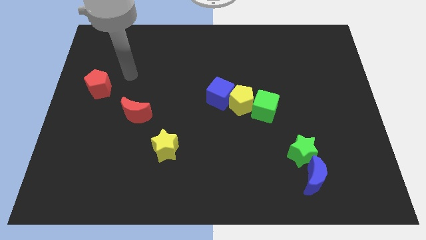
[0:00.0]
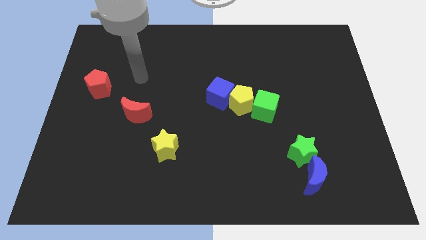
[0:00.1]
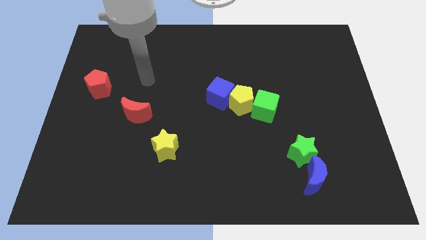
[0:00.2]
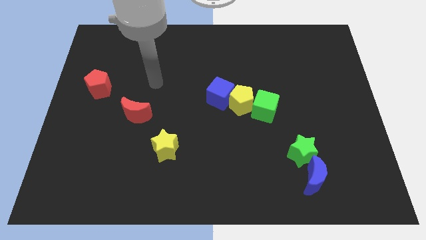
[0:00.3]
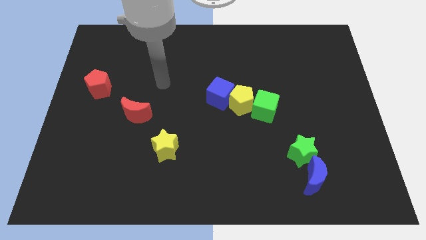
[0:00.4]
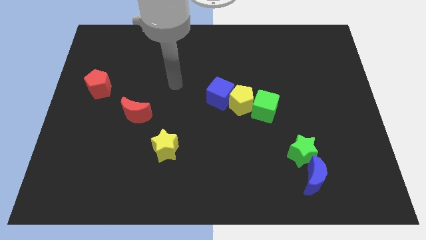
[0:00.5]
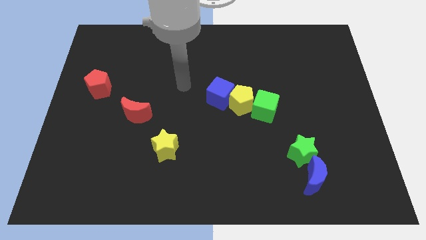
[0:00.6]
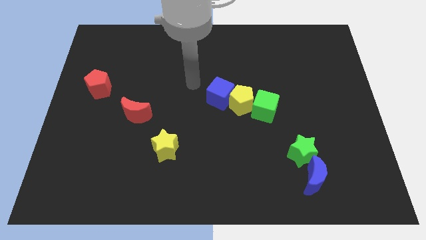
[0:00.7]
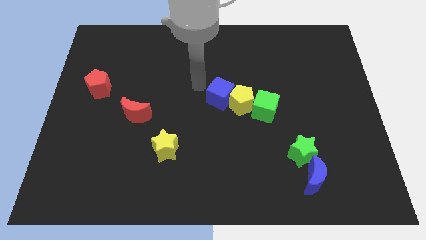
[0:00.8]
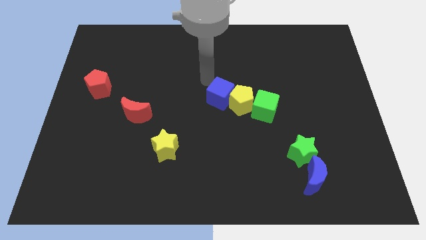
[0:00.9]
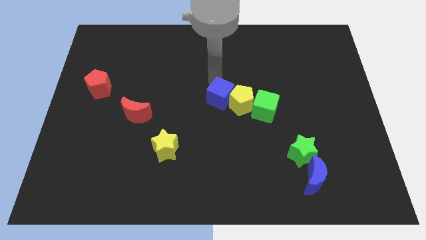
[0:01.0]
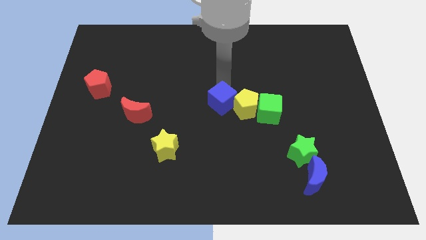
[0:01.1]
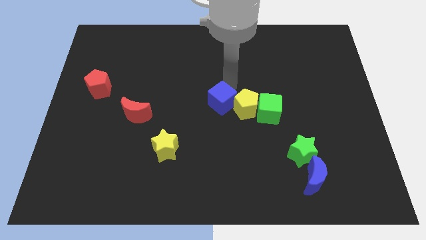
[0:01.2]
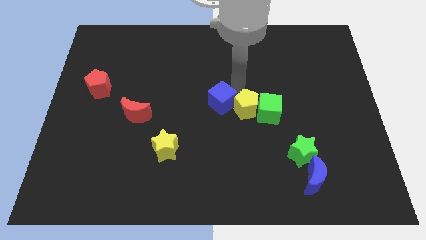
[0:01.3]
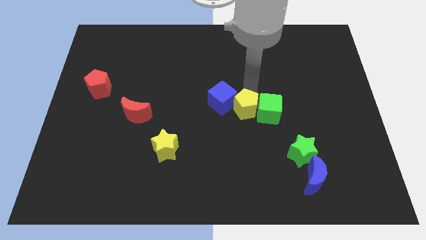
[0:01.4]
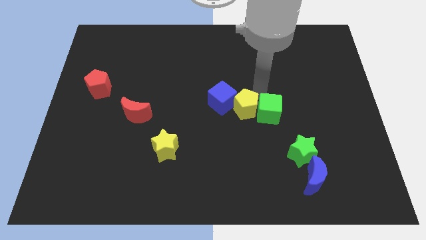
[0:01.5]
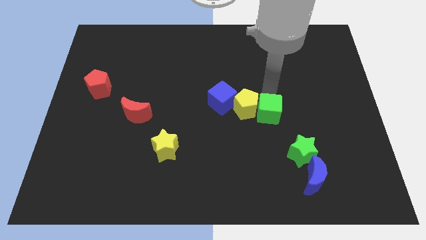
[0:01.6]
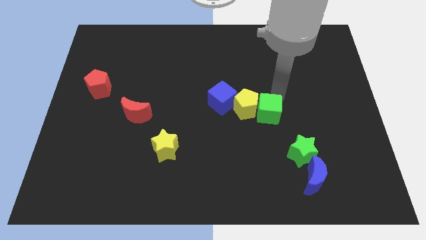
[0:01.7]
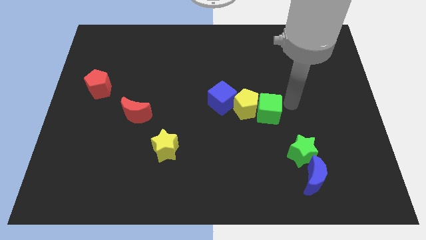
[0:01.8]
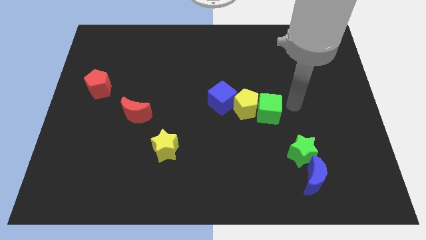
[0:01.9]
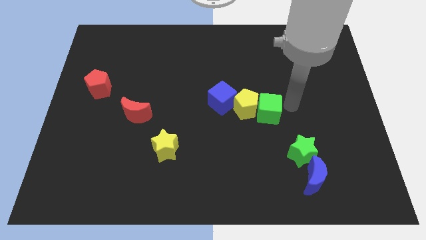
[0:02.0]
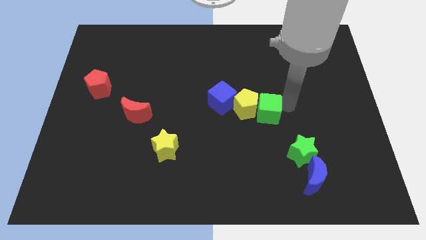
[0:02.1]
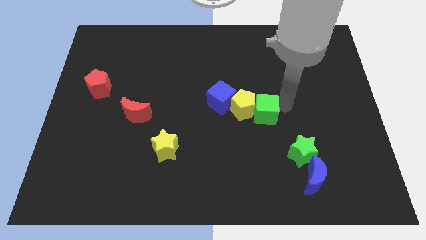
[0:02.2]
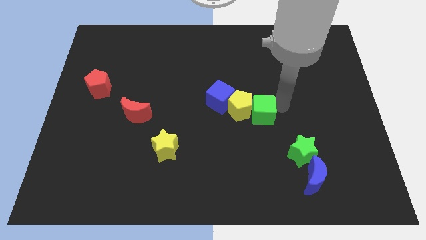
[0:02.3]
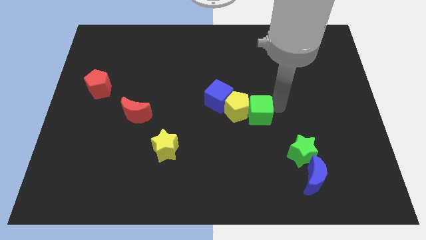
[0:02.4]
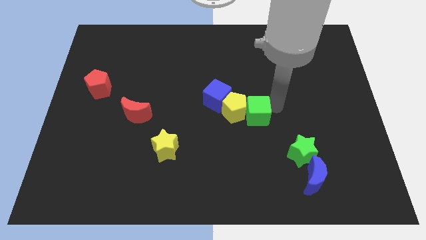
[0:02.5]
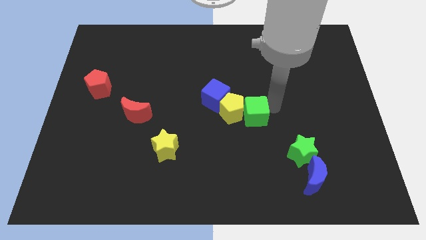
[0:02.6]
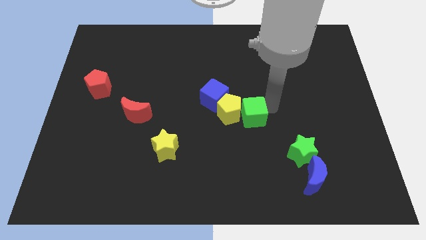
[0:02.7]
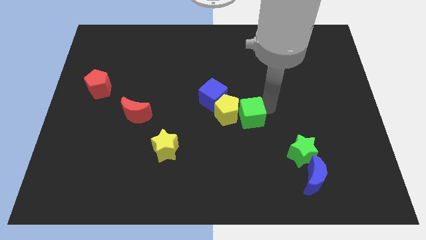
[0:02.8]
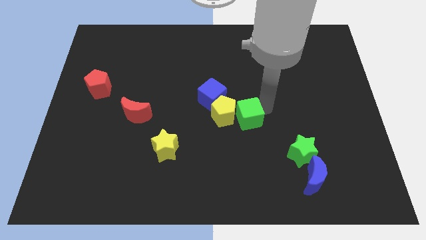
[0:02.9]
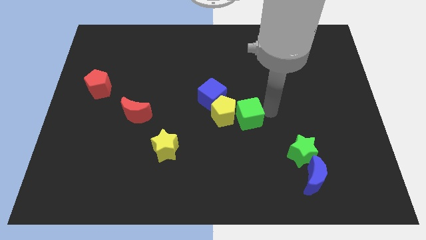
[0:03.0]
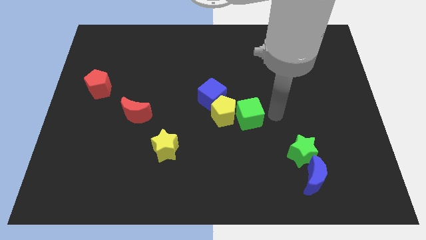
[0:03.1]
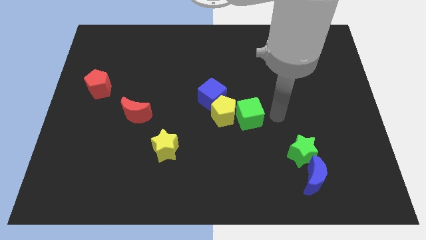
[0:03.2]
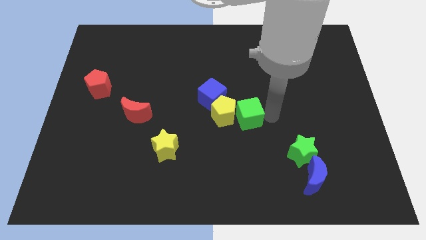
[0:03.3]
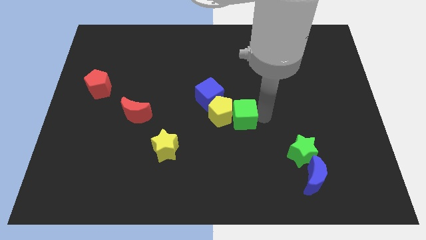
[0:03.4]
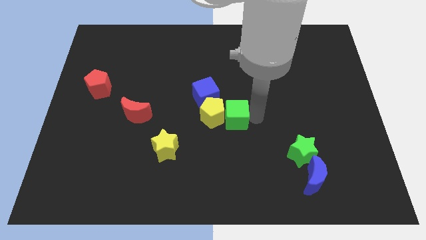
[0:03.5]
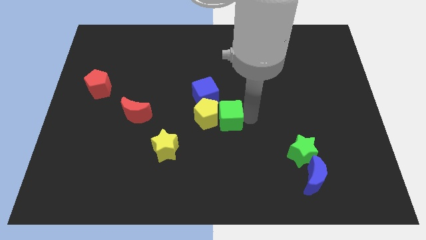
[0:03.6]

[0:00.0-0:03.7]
slightly move the green cube left

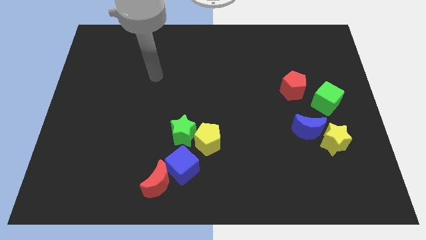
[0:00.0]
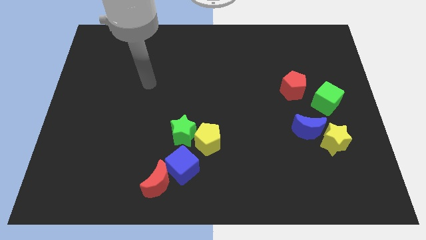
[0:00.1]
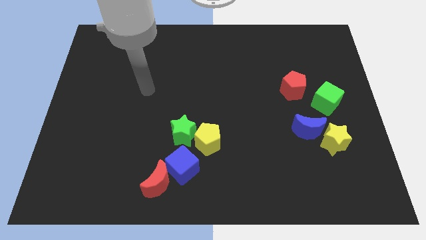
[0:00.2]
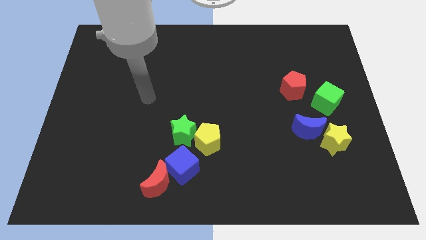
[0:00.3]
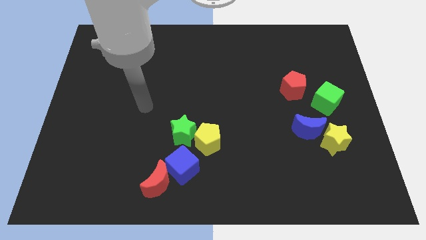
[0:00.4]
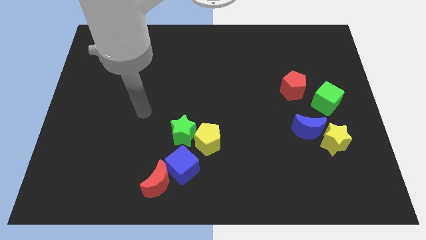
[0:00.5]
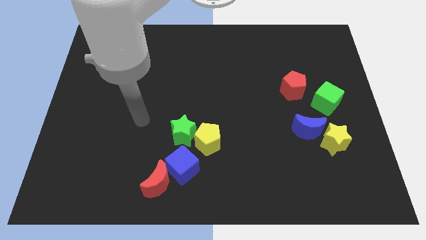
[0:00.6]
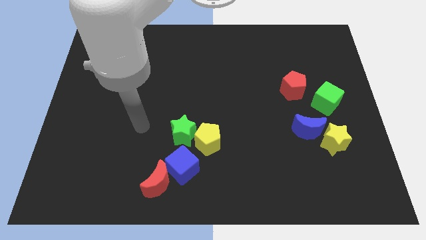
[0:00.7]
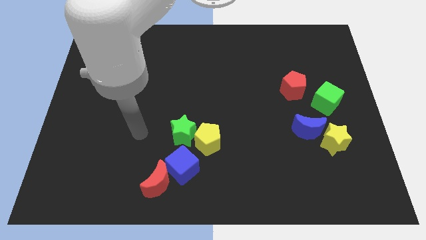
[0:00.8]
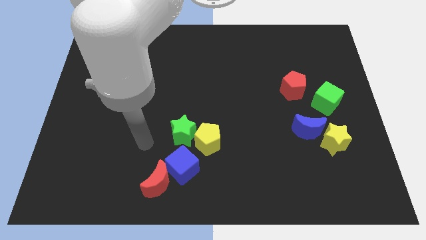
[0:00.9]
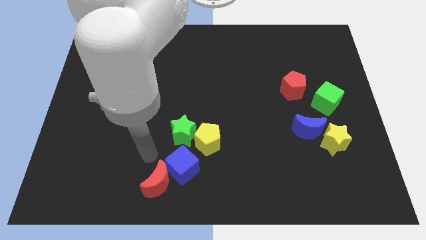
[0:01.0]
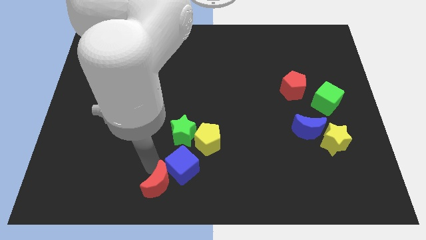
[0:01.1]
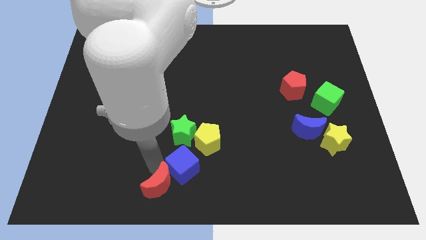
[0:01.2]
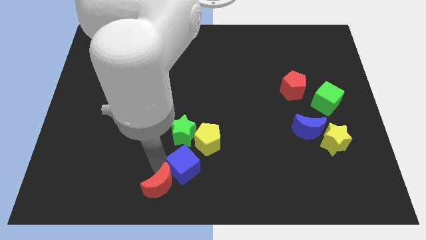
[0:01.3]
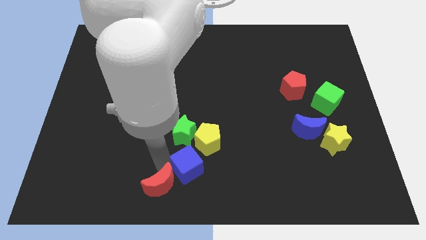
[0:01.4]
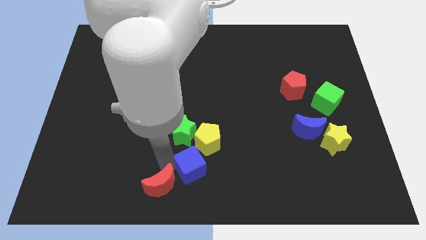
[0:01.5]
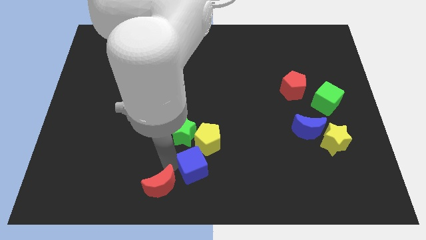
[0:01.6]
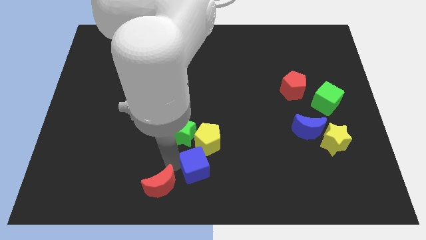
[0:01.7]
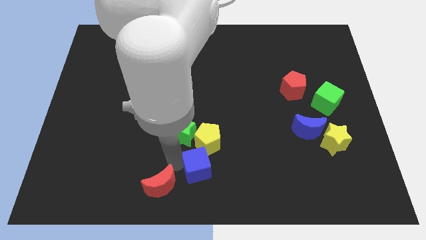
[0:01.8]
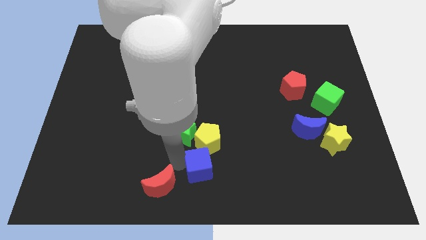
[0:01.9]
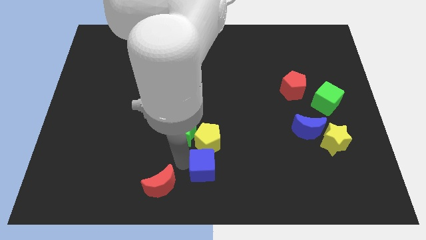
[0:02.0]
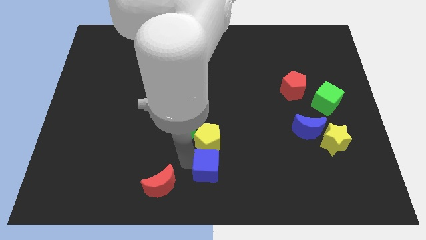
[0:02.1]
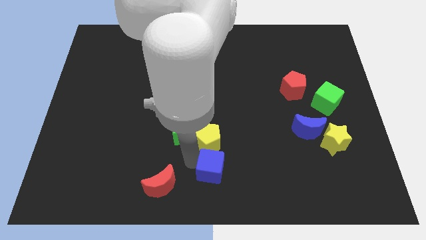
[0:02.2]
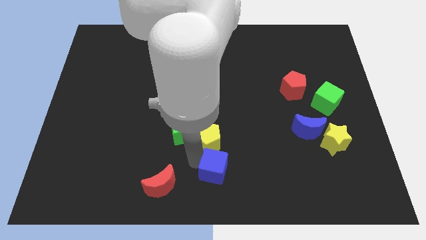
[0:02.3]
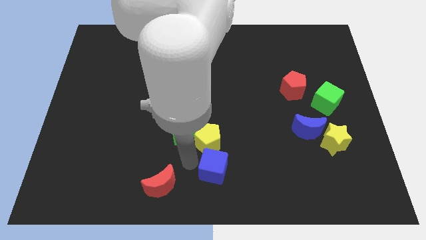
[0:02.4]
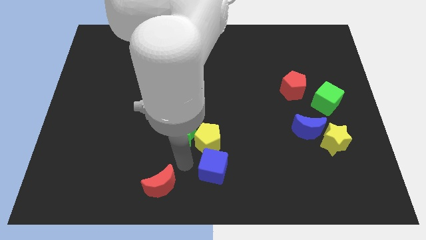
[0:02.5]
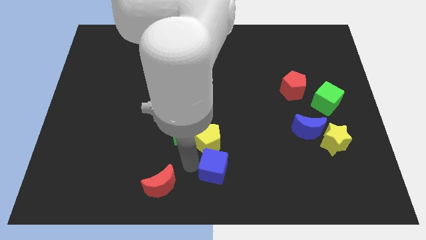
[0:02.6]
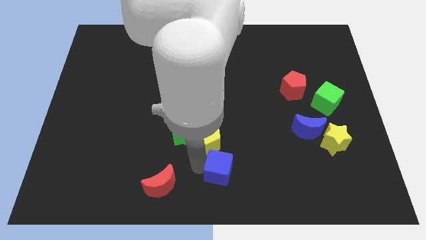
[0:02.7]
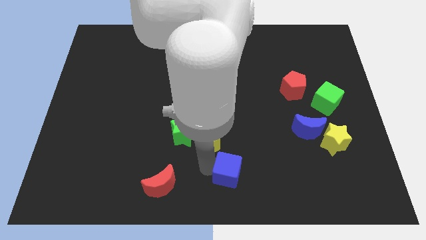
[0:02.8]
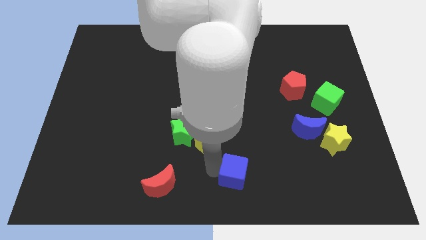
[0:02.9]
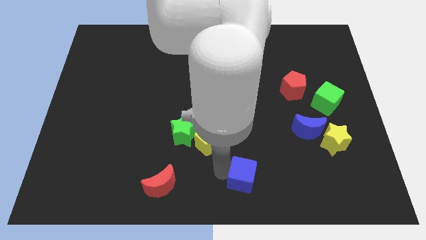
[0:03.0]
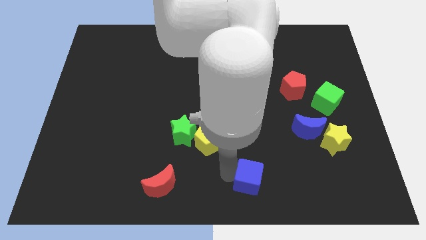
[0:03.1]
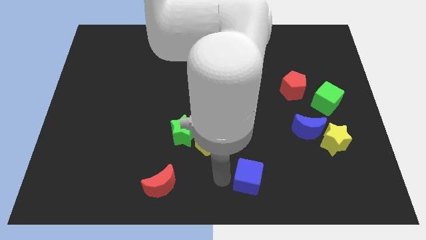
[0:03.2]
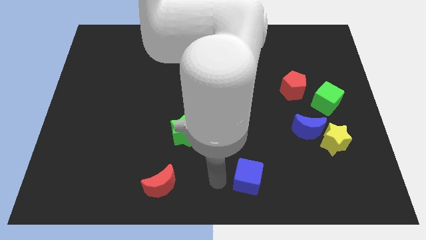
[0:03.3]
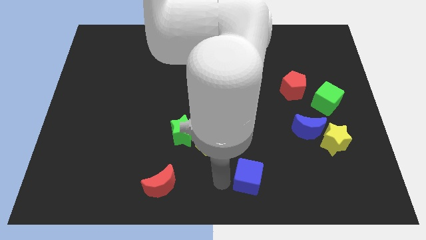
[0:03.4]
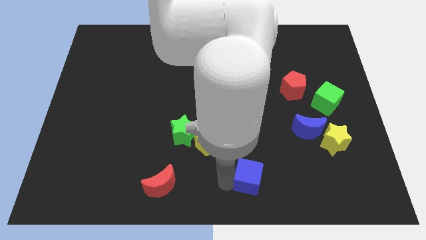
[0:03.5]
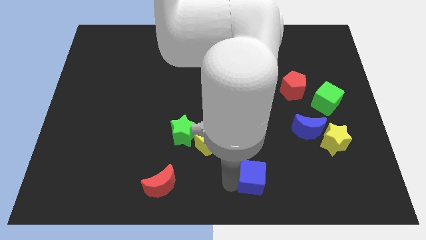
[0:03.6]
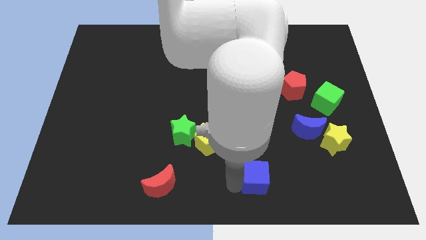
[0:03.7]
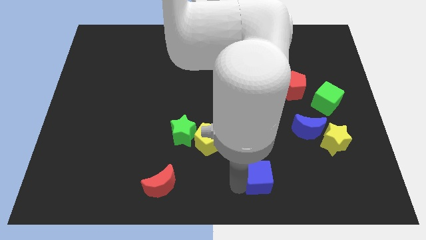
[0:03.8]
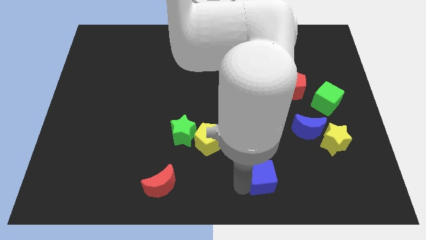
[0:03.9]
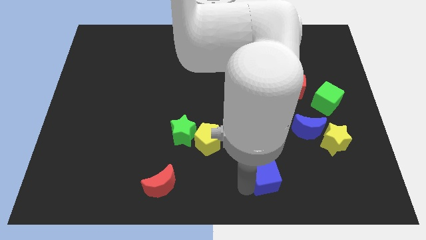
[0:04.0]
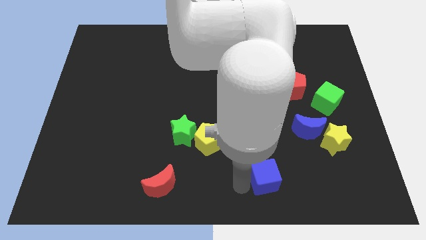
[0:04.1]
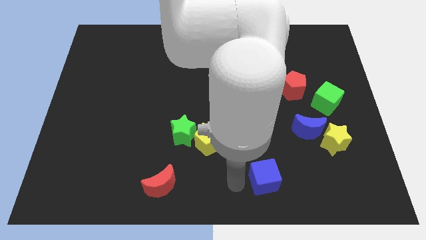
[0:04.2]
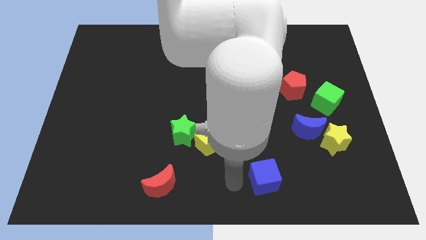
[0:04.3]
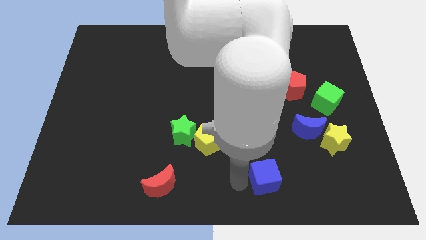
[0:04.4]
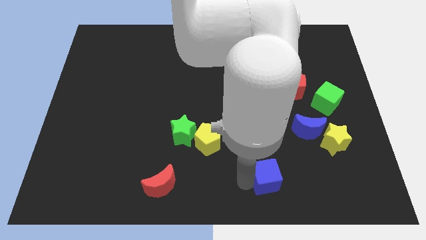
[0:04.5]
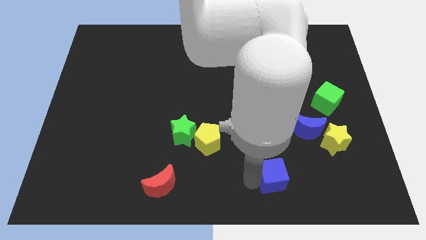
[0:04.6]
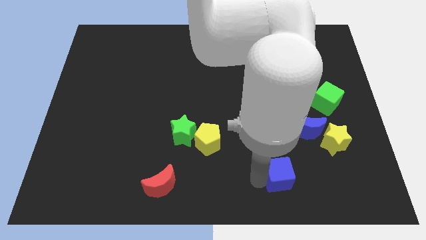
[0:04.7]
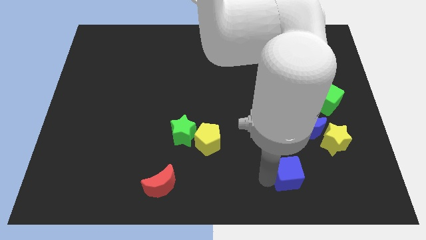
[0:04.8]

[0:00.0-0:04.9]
push the blue cube to the right
